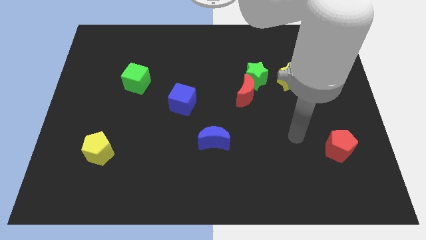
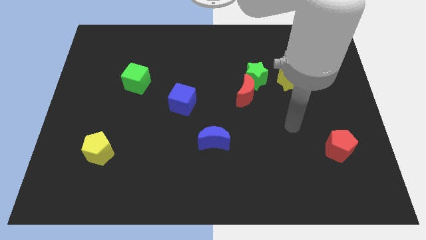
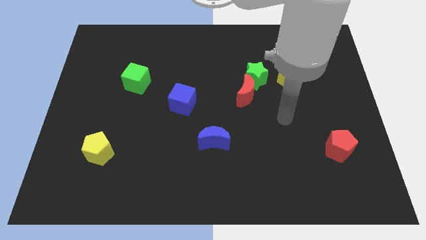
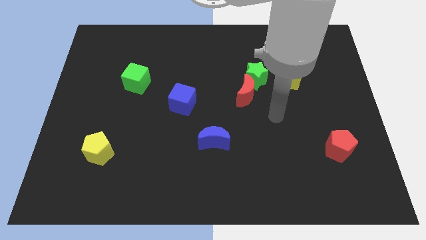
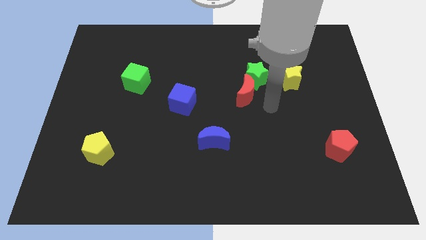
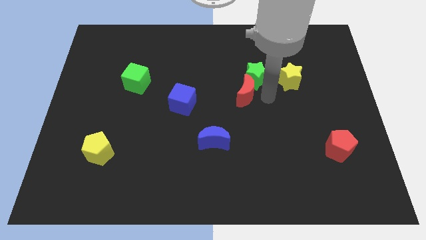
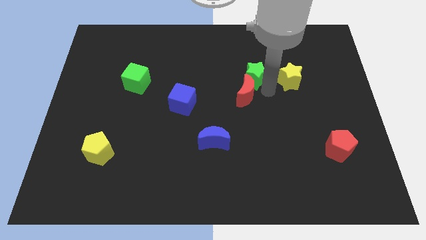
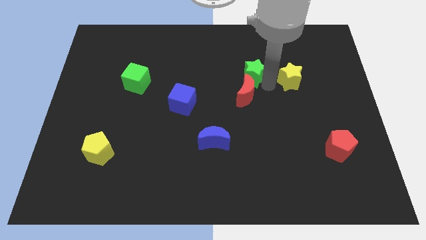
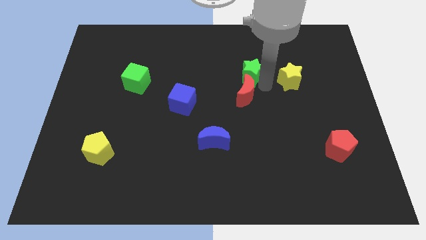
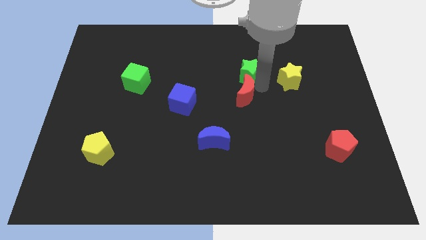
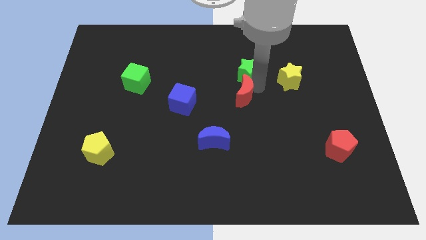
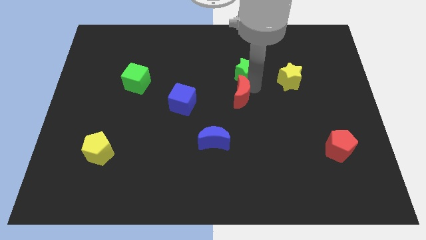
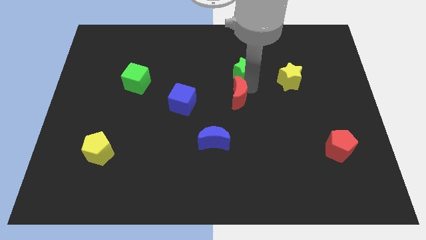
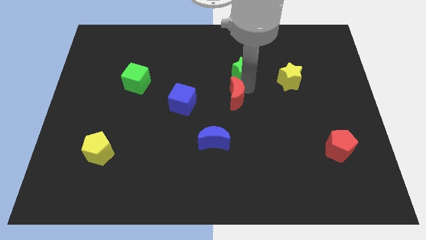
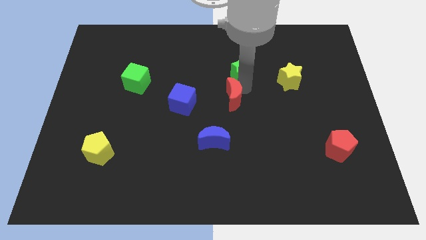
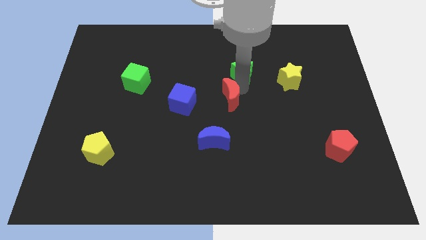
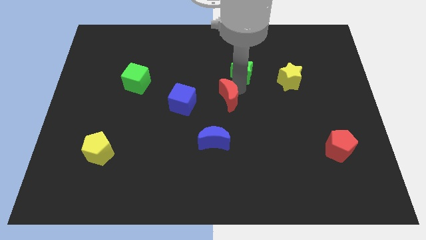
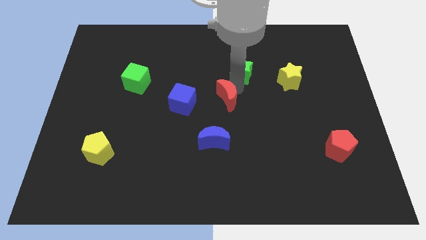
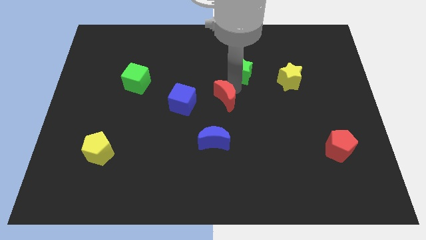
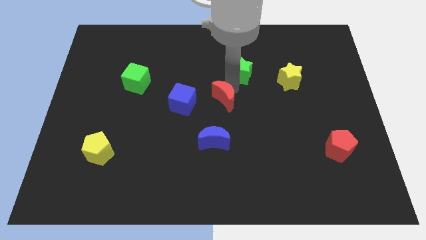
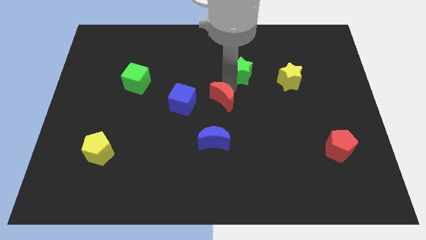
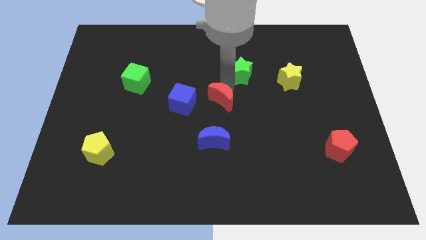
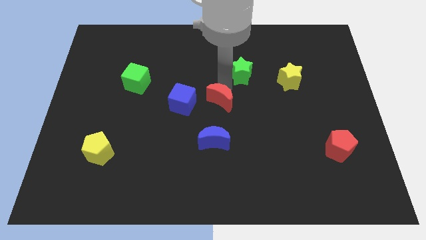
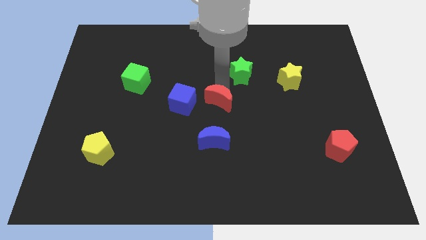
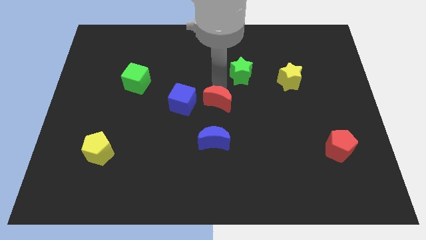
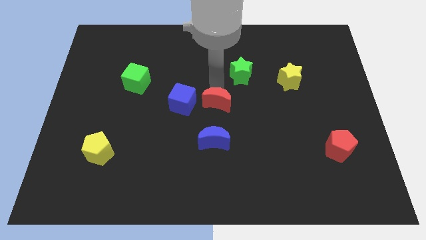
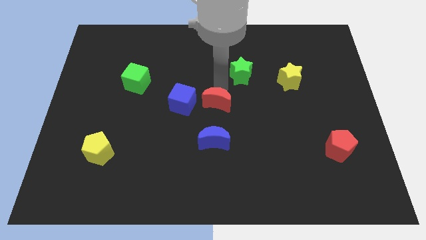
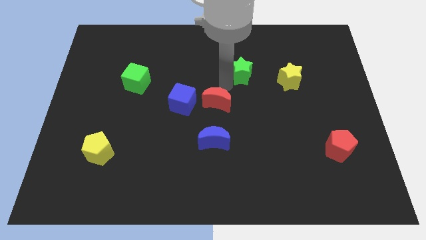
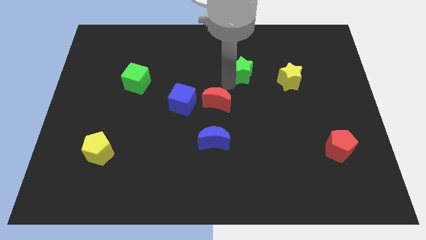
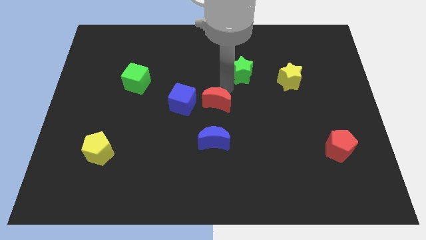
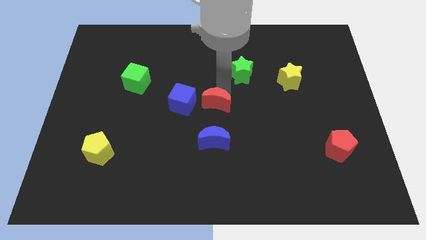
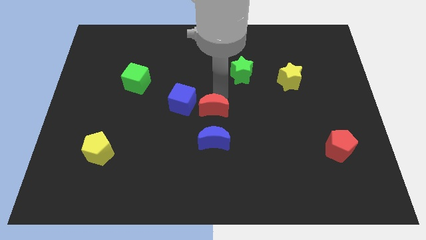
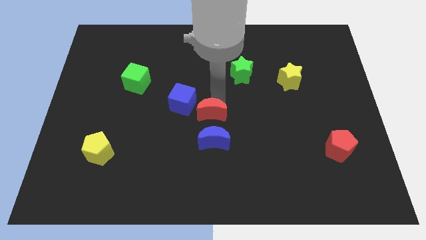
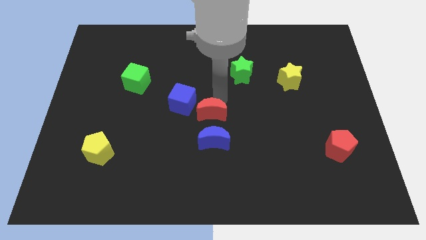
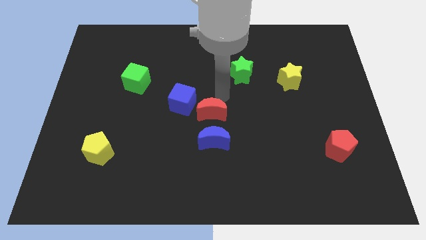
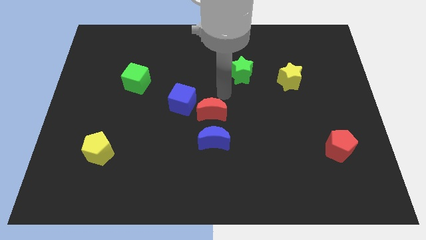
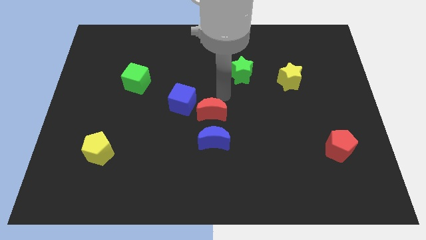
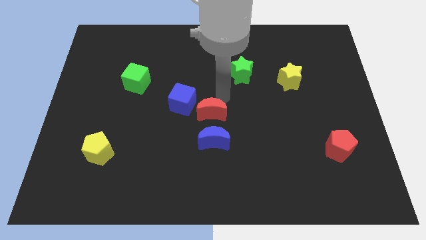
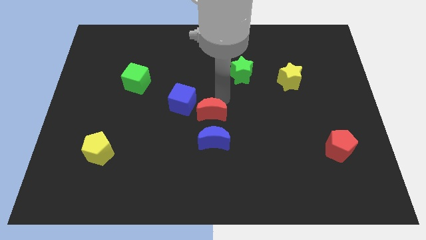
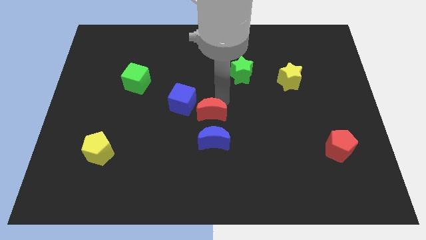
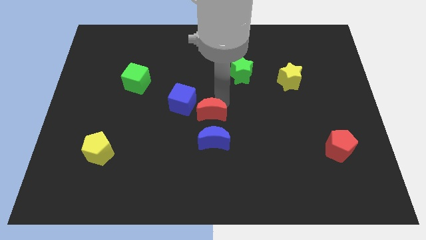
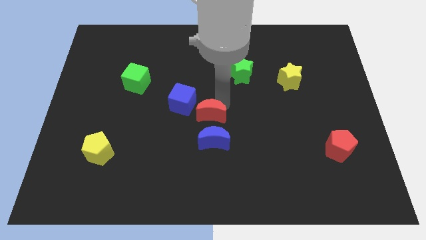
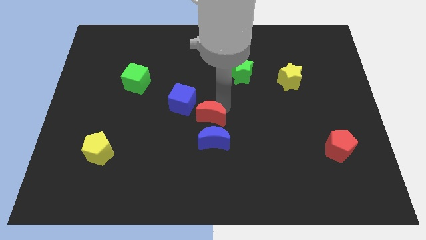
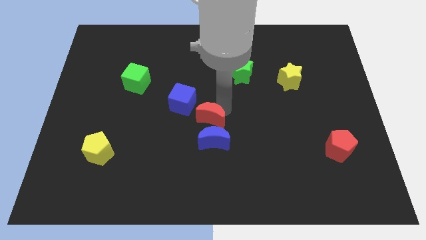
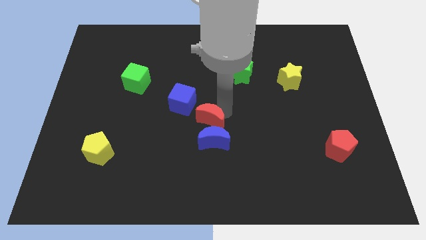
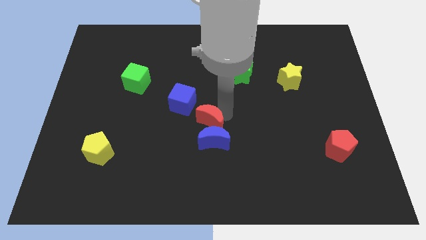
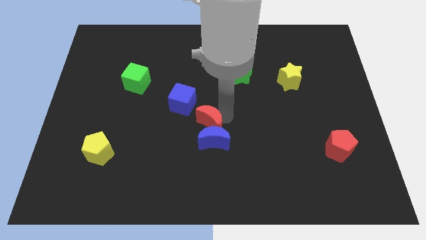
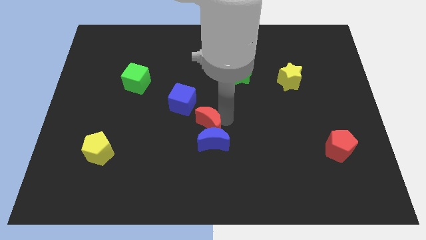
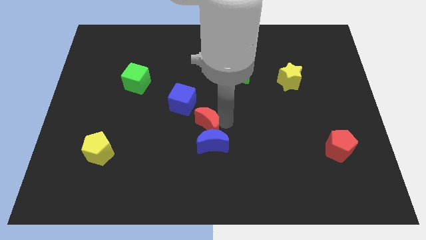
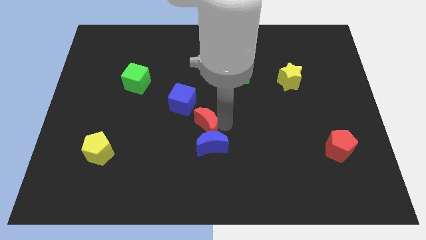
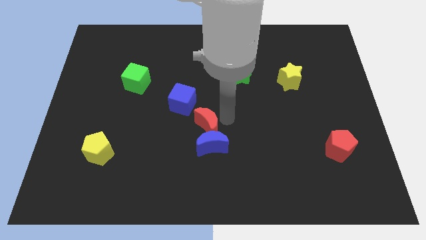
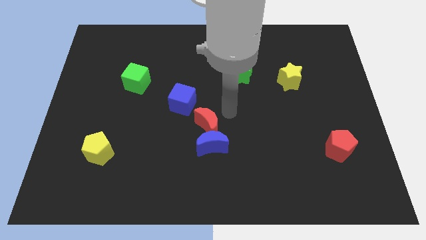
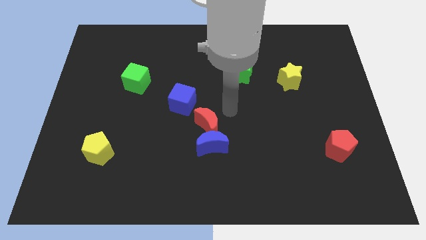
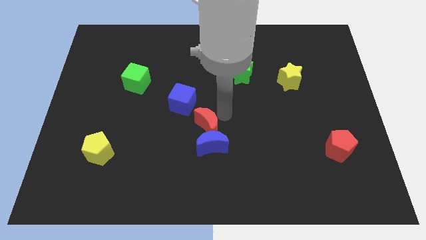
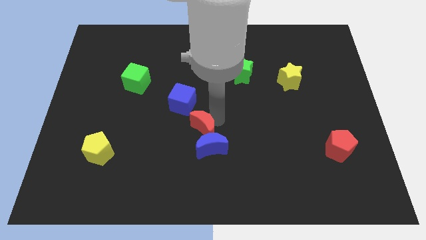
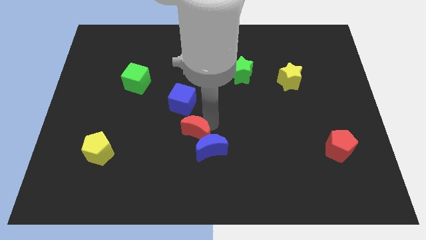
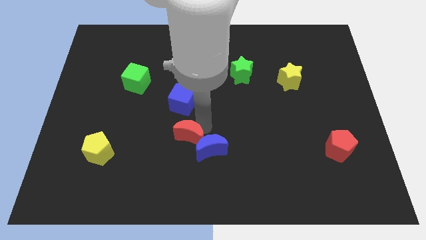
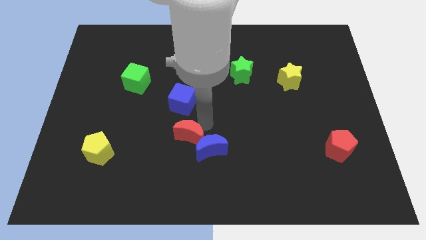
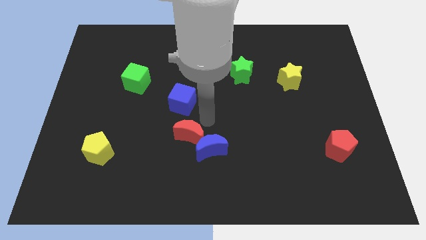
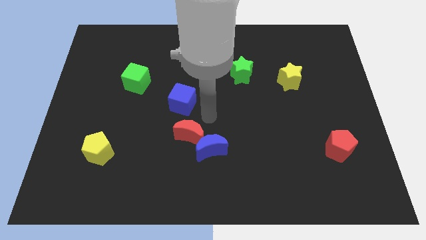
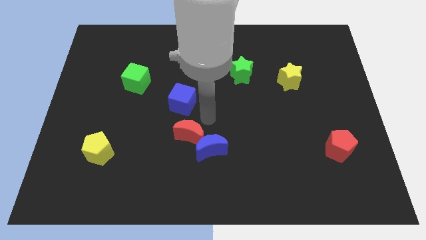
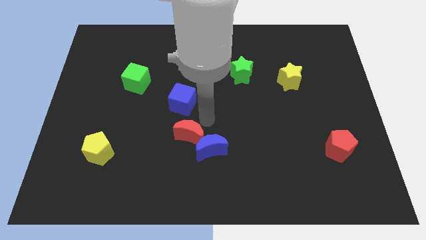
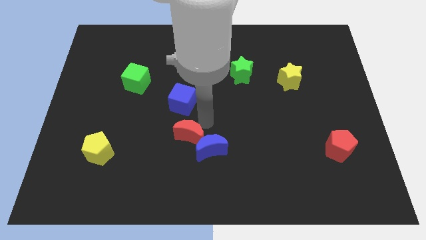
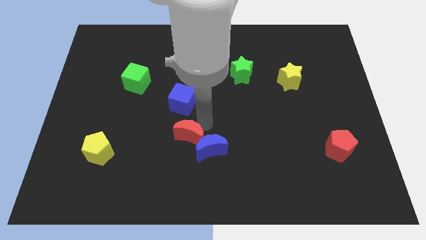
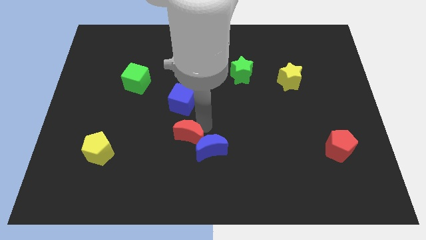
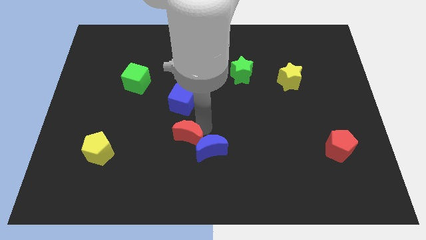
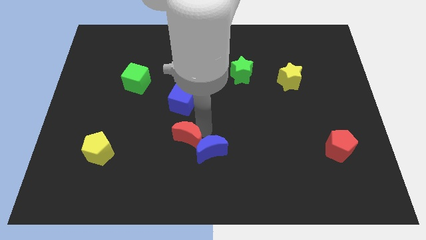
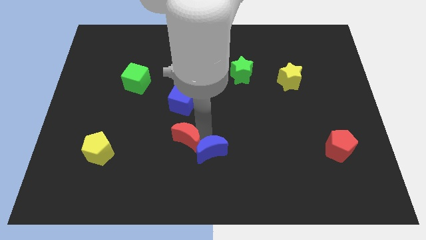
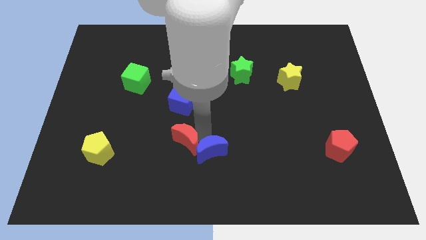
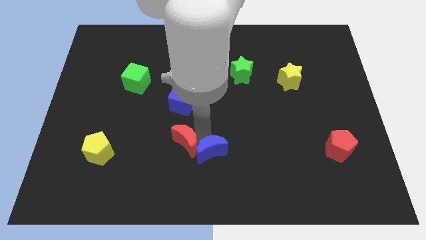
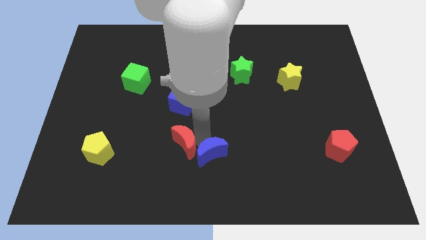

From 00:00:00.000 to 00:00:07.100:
move the red moon diagonally down and to the left

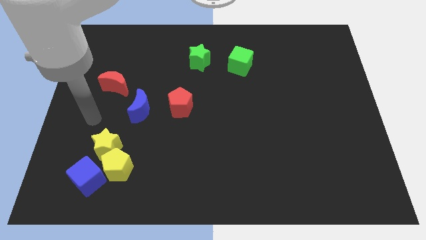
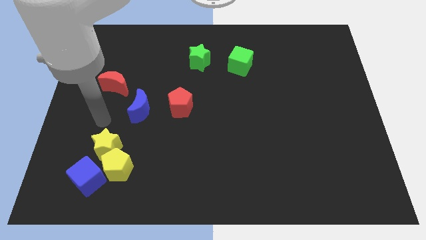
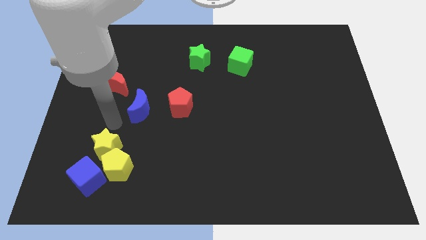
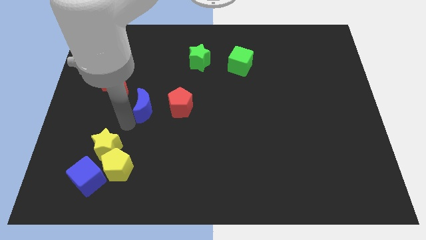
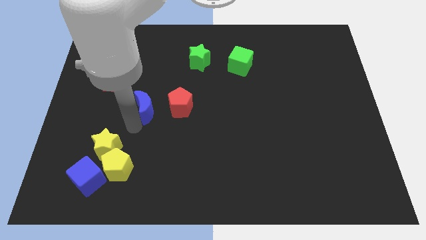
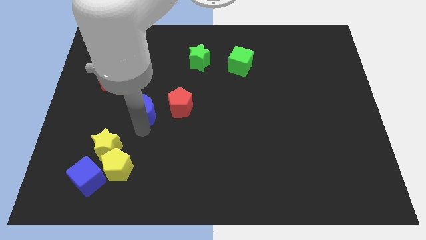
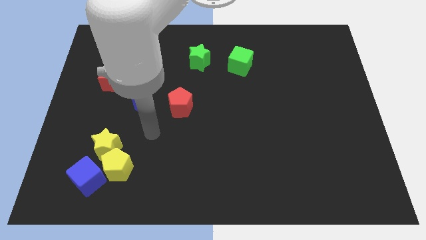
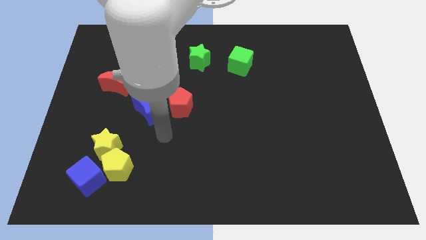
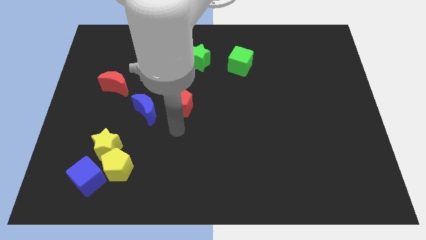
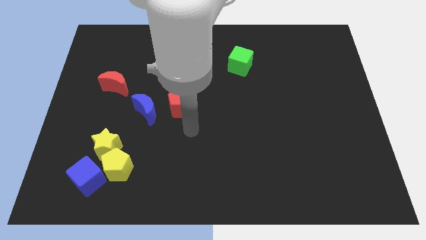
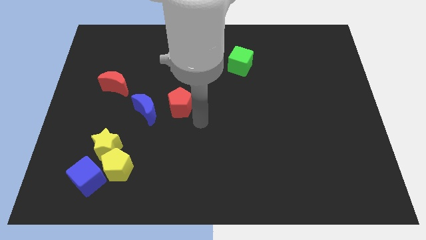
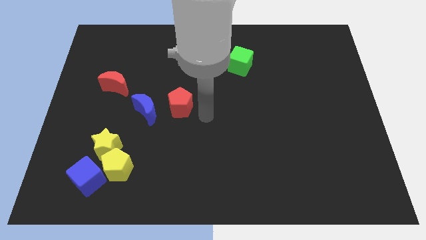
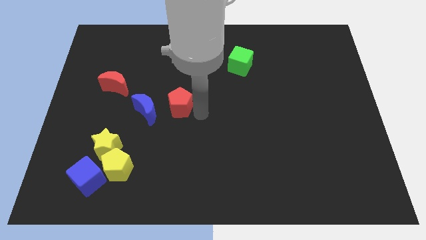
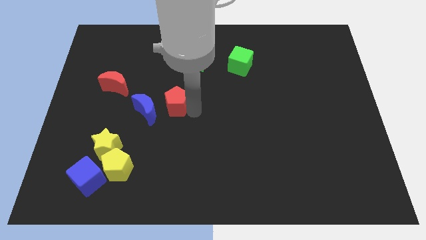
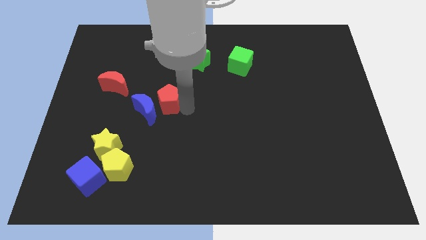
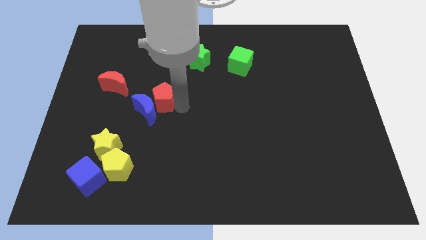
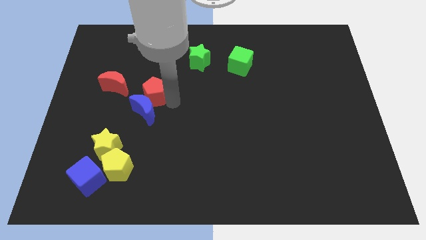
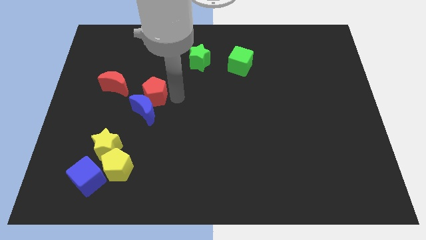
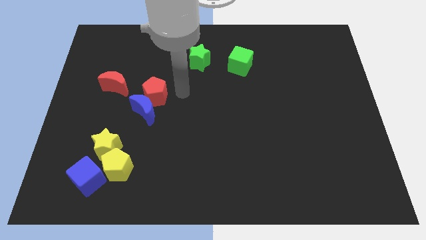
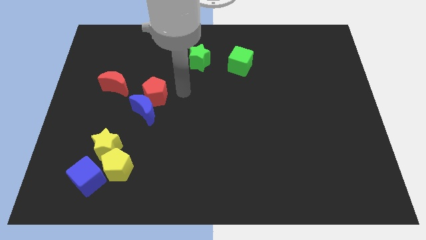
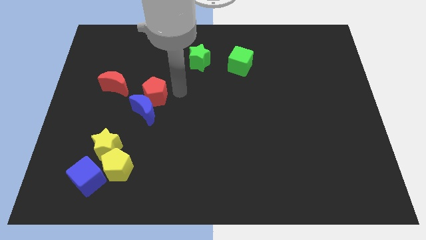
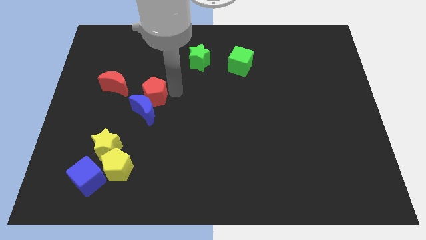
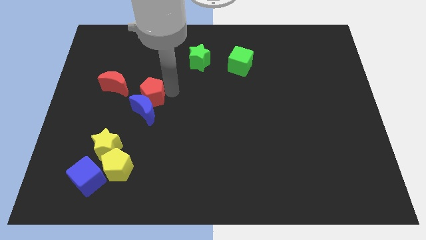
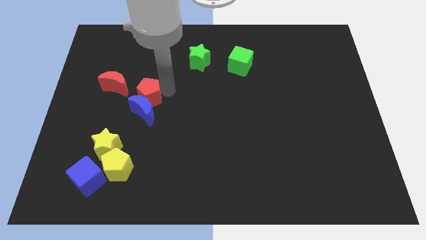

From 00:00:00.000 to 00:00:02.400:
slightly slide the red pentagon to the left
